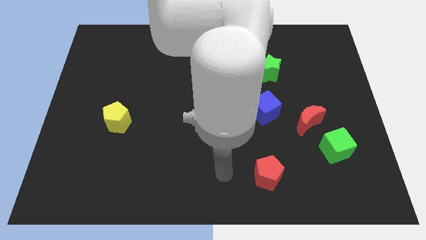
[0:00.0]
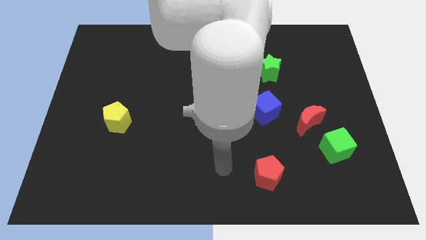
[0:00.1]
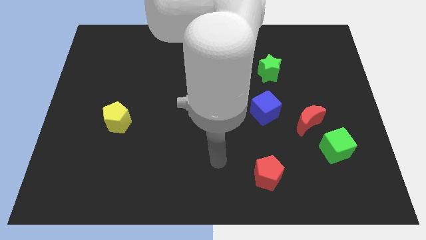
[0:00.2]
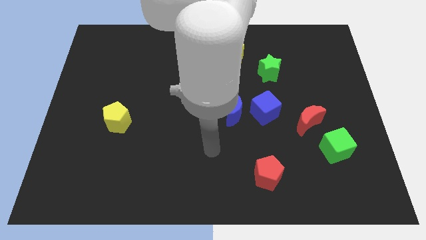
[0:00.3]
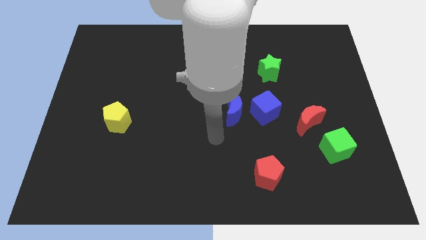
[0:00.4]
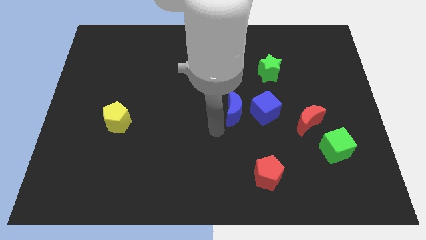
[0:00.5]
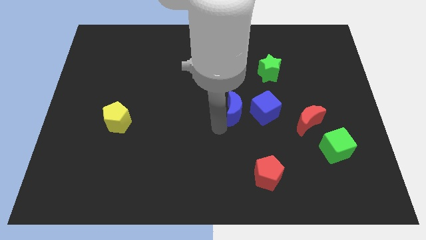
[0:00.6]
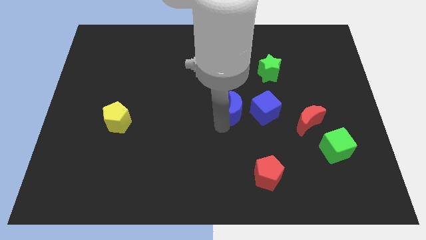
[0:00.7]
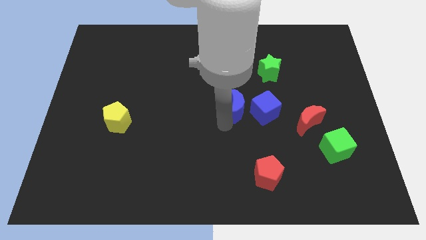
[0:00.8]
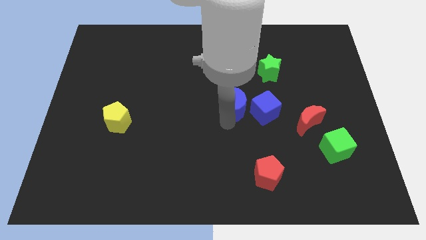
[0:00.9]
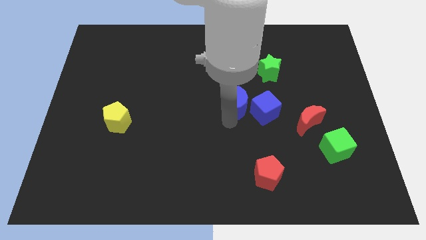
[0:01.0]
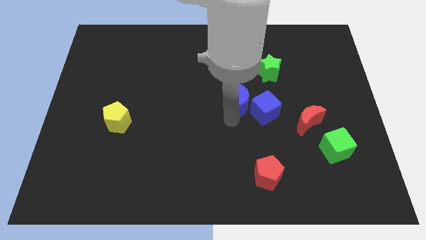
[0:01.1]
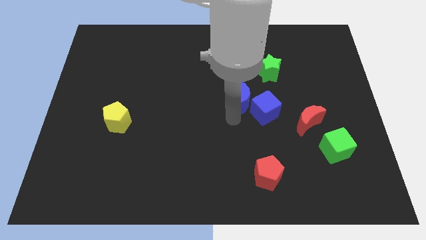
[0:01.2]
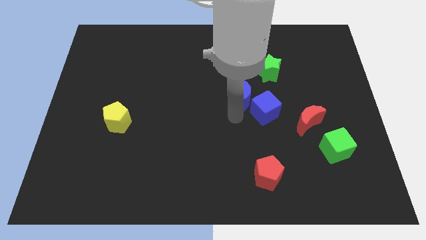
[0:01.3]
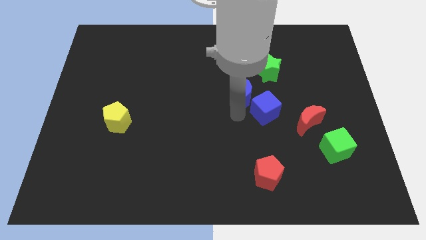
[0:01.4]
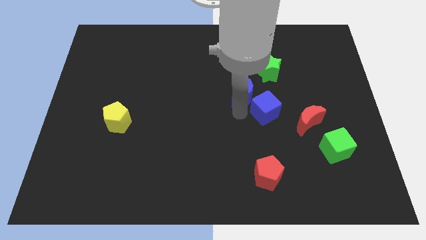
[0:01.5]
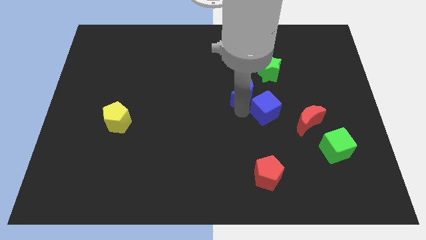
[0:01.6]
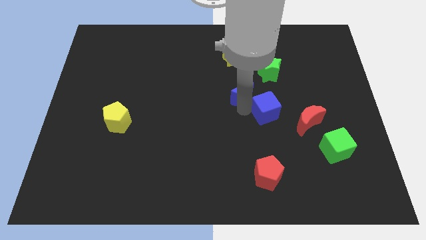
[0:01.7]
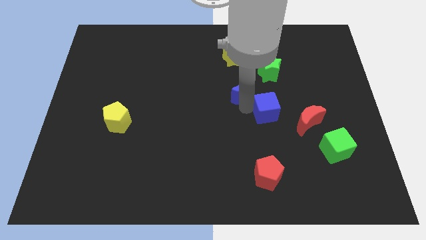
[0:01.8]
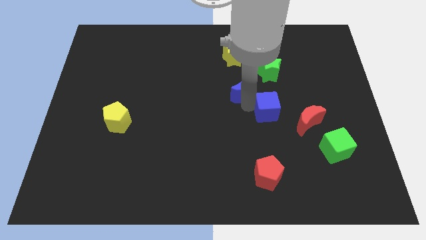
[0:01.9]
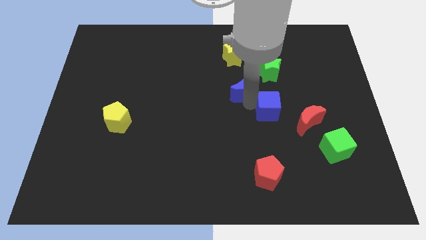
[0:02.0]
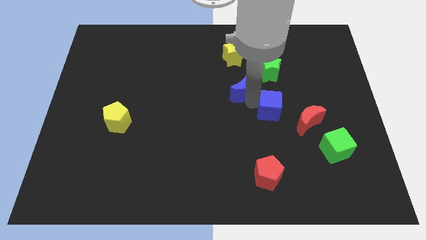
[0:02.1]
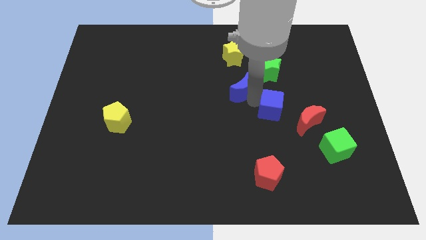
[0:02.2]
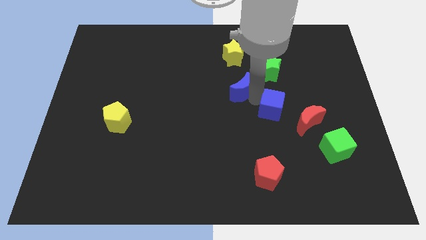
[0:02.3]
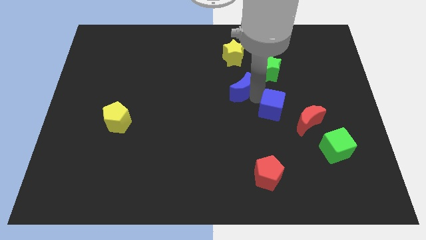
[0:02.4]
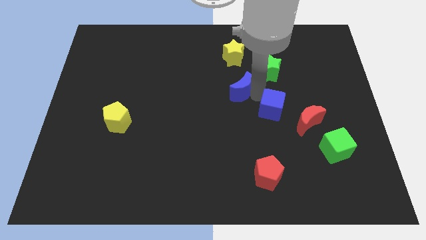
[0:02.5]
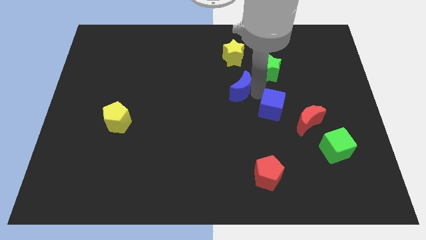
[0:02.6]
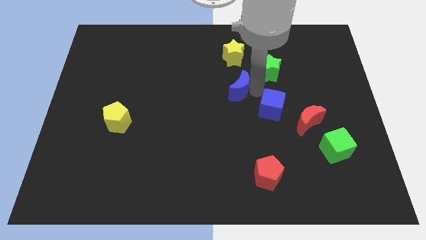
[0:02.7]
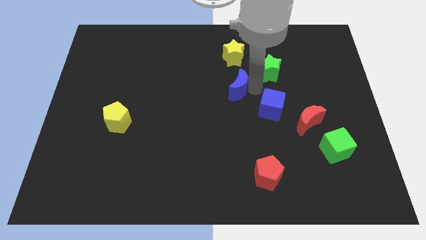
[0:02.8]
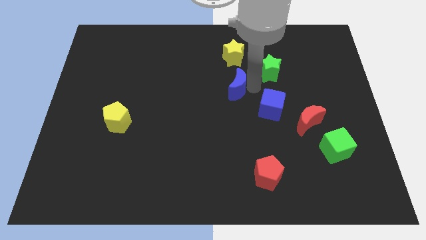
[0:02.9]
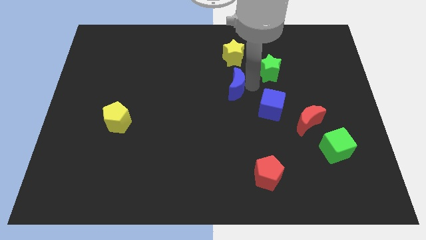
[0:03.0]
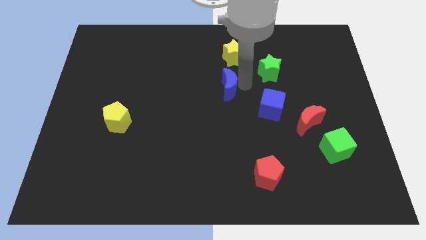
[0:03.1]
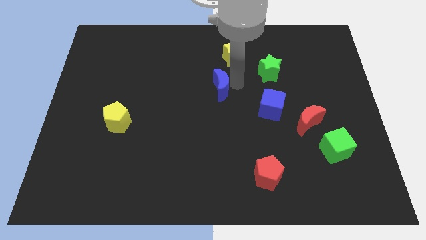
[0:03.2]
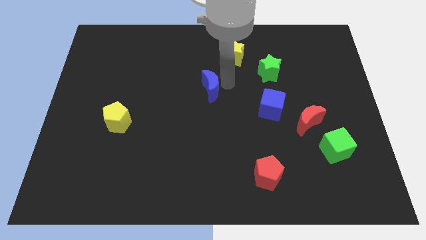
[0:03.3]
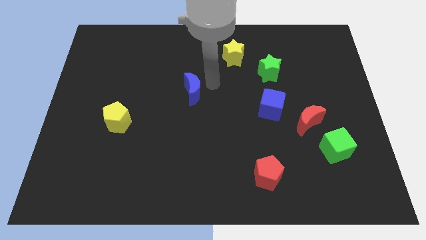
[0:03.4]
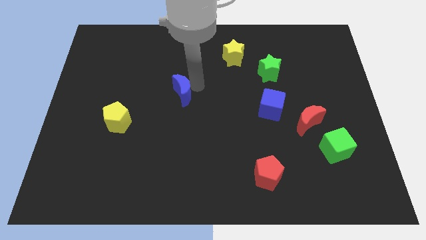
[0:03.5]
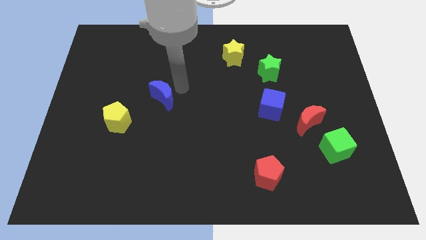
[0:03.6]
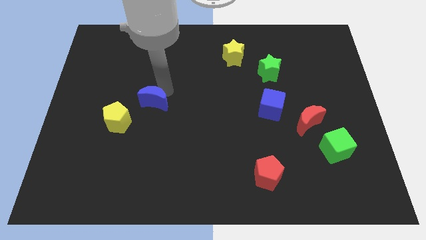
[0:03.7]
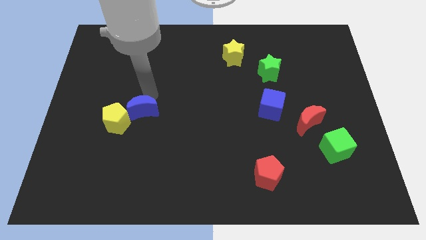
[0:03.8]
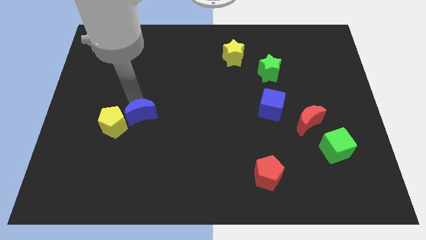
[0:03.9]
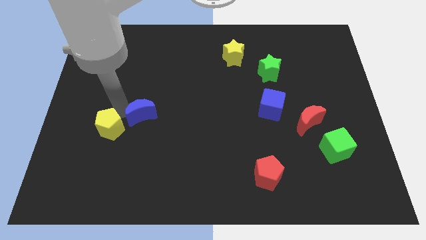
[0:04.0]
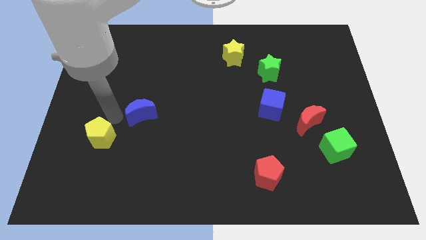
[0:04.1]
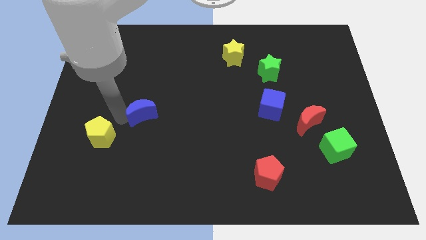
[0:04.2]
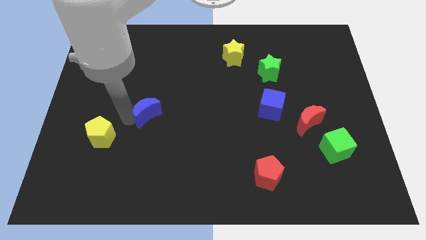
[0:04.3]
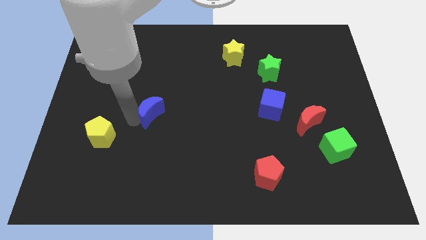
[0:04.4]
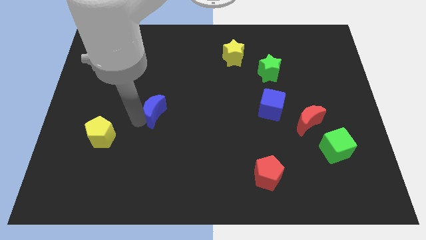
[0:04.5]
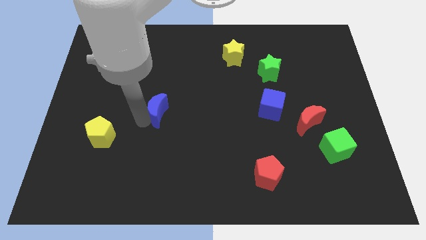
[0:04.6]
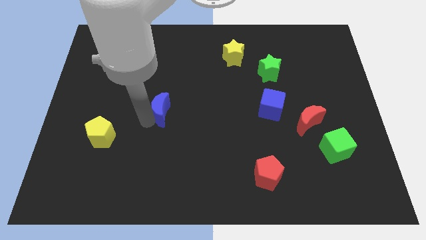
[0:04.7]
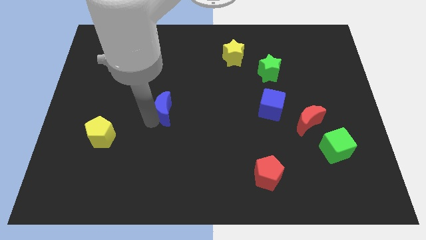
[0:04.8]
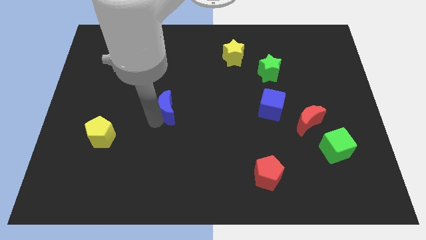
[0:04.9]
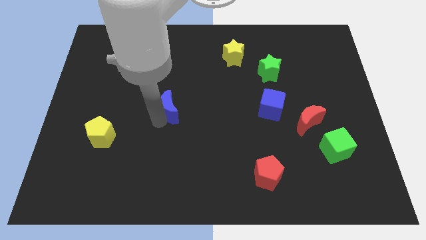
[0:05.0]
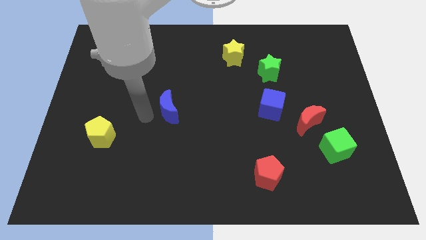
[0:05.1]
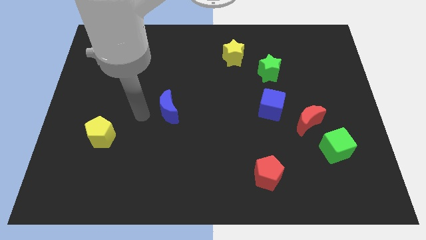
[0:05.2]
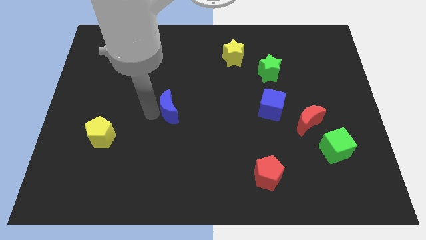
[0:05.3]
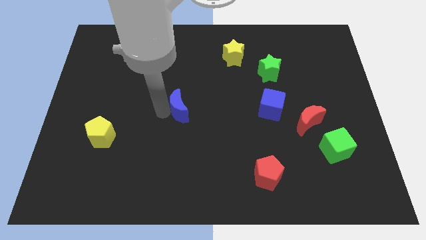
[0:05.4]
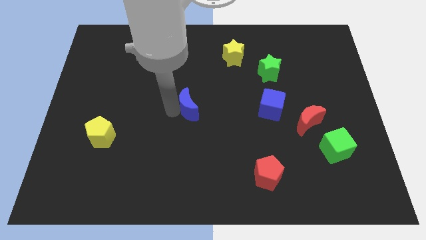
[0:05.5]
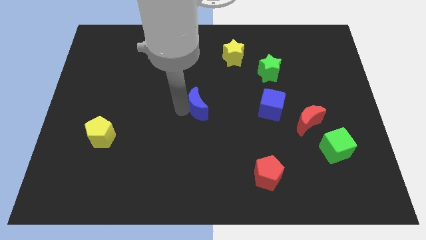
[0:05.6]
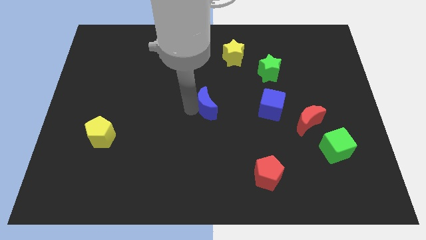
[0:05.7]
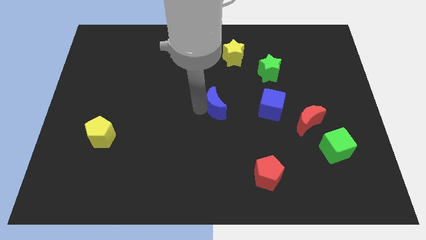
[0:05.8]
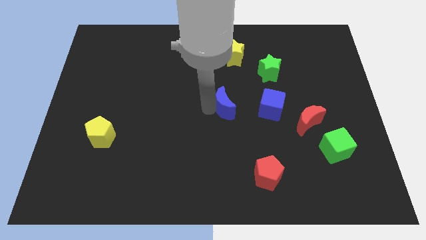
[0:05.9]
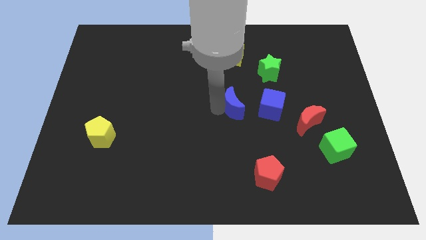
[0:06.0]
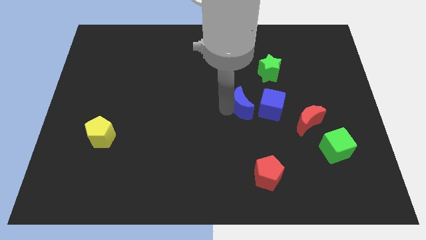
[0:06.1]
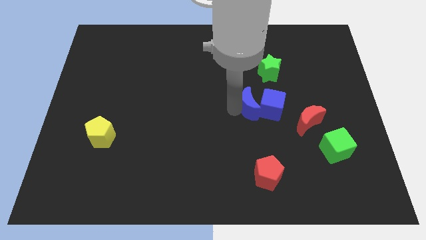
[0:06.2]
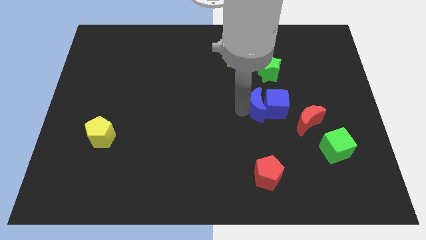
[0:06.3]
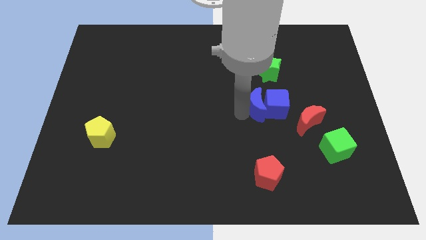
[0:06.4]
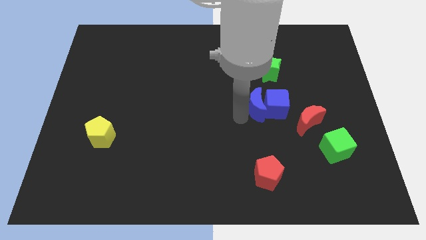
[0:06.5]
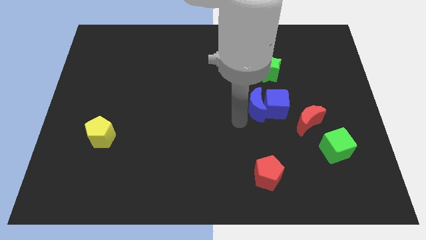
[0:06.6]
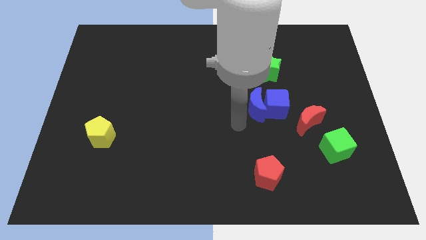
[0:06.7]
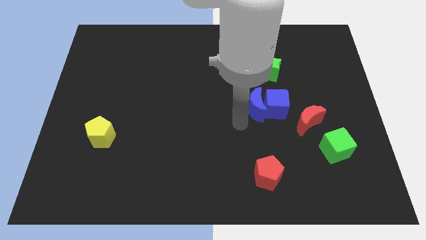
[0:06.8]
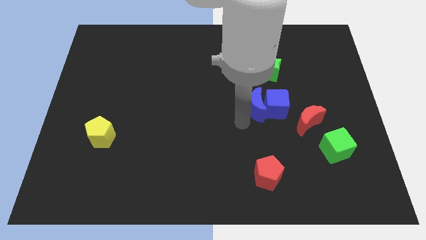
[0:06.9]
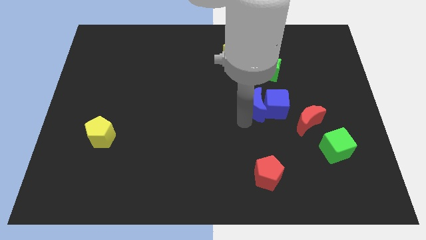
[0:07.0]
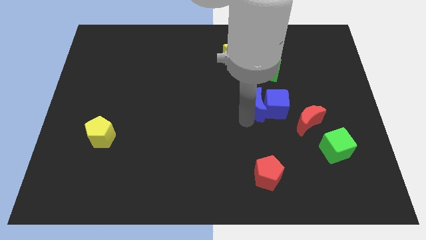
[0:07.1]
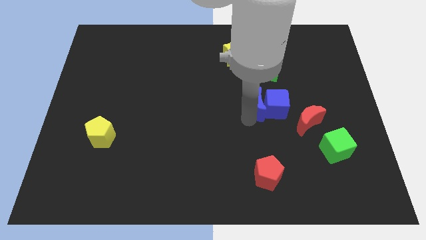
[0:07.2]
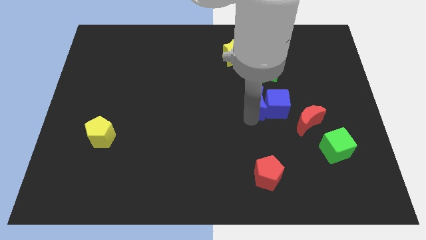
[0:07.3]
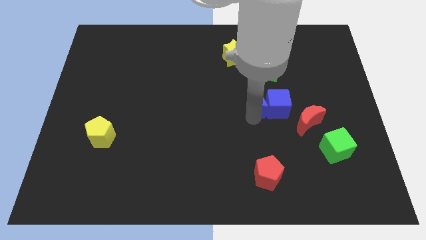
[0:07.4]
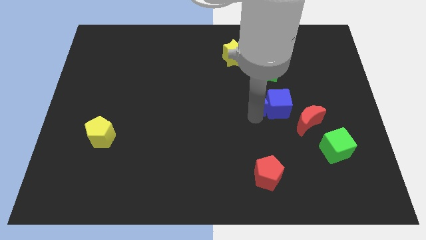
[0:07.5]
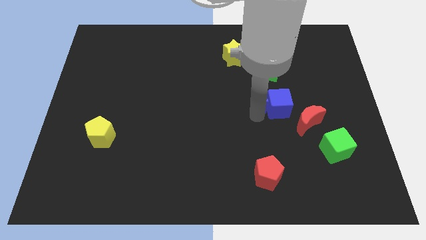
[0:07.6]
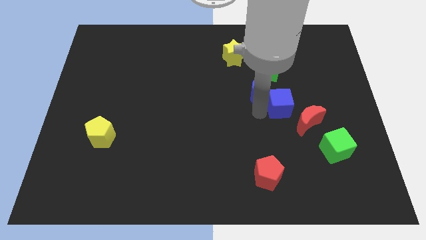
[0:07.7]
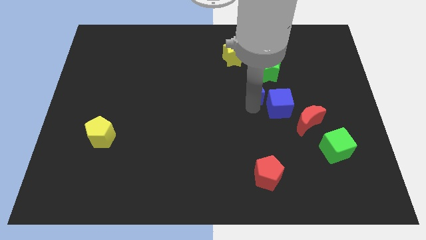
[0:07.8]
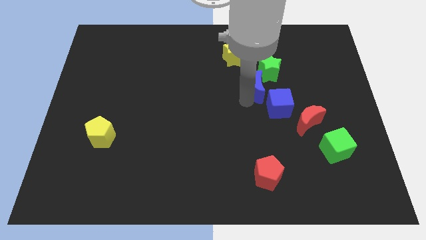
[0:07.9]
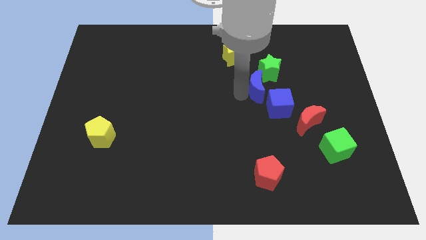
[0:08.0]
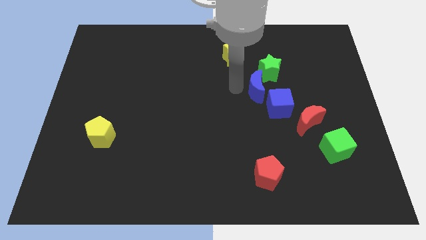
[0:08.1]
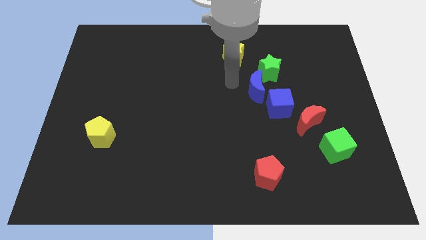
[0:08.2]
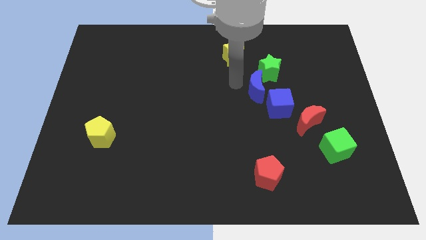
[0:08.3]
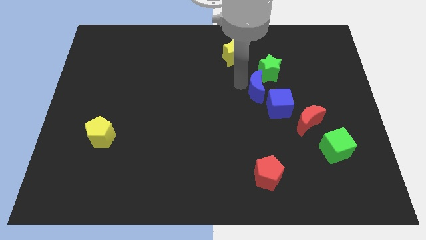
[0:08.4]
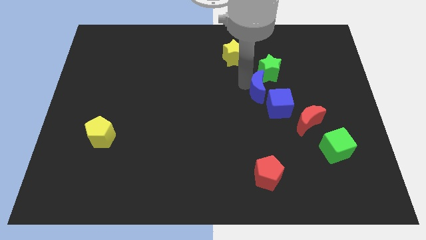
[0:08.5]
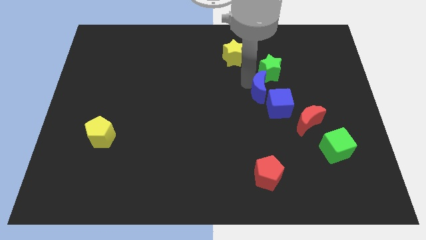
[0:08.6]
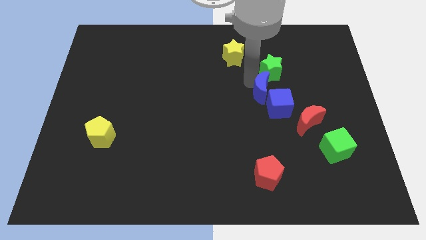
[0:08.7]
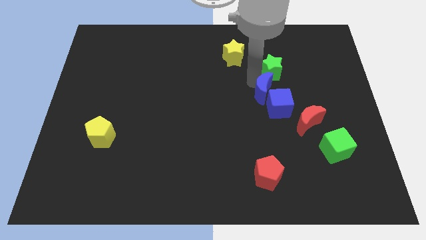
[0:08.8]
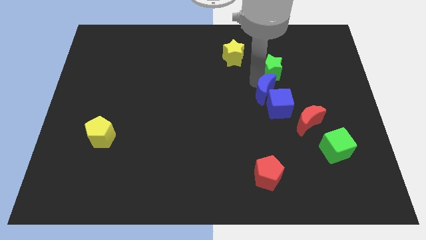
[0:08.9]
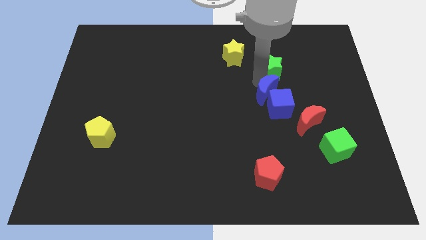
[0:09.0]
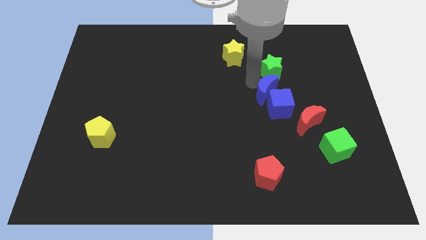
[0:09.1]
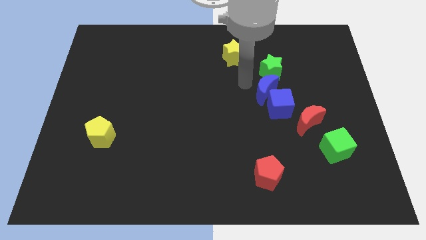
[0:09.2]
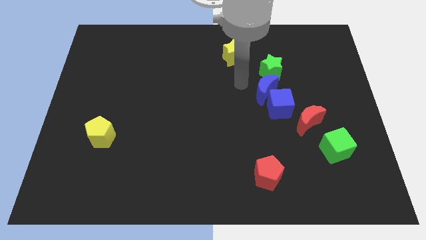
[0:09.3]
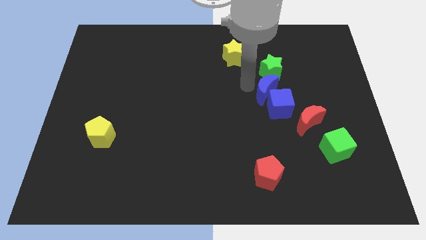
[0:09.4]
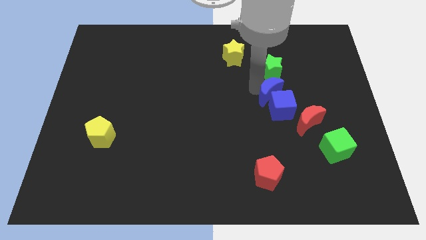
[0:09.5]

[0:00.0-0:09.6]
push the blue moon to the right slightly
